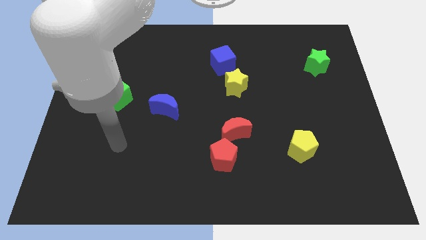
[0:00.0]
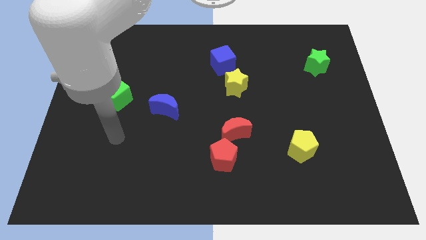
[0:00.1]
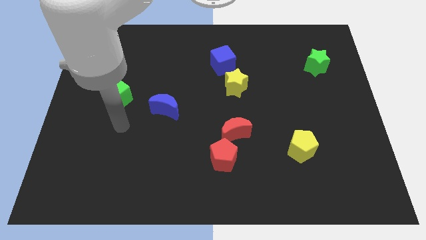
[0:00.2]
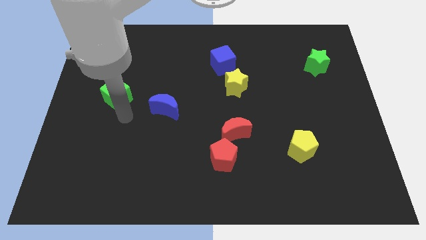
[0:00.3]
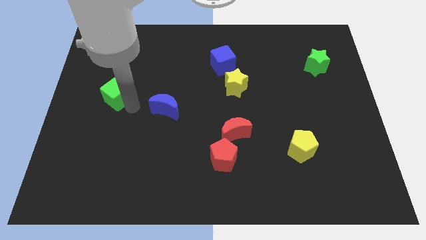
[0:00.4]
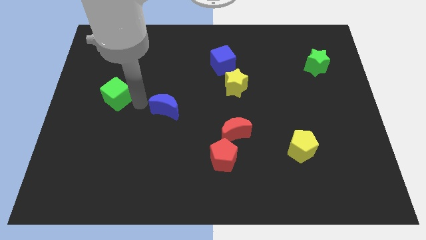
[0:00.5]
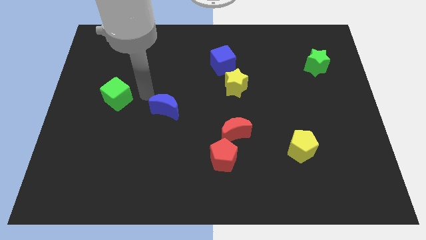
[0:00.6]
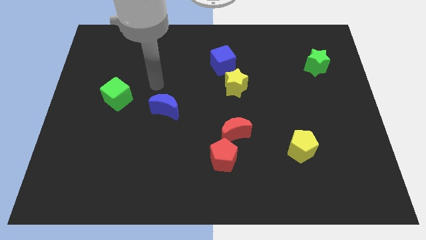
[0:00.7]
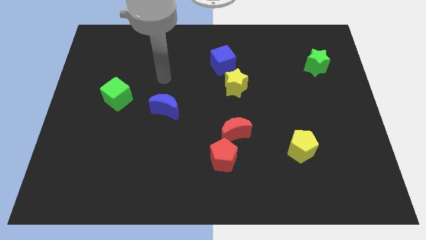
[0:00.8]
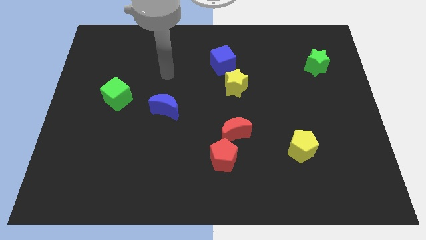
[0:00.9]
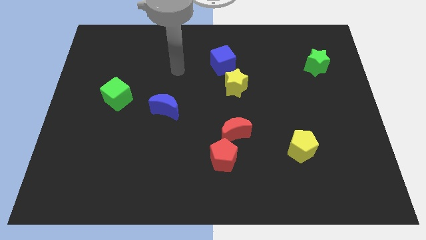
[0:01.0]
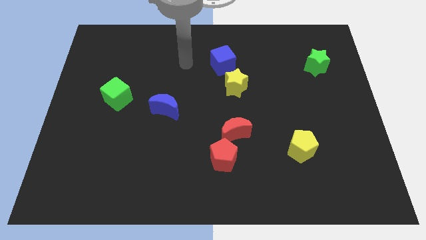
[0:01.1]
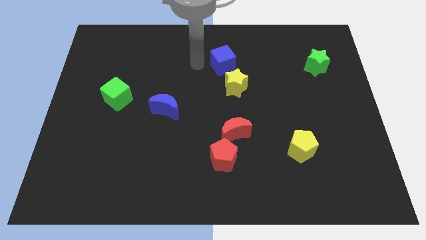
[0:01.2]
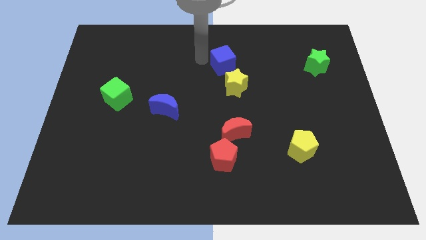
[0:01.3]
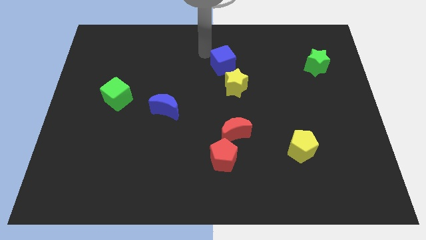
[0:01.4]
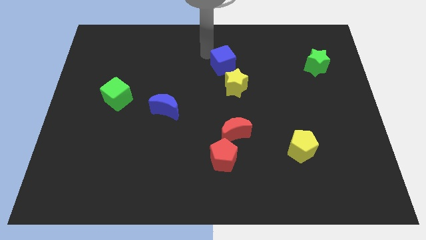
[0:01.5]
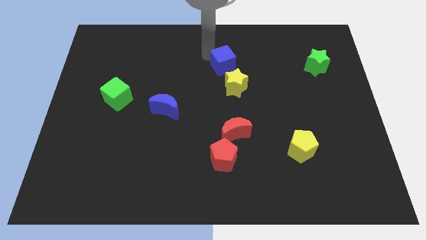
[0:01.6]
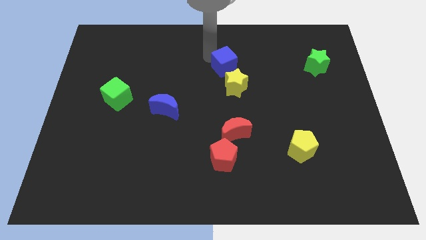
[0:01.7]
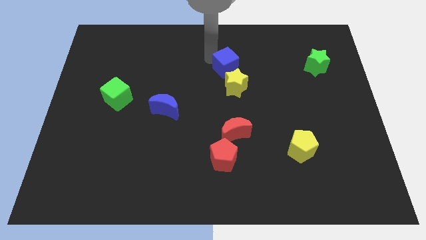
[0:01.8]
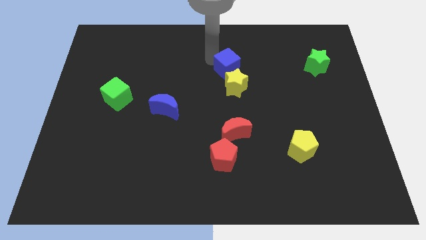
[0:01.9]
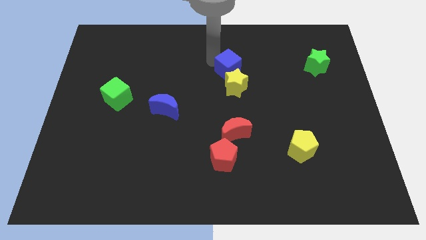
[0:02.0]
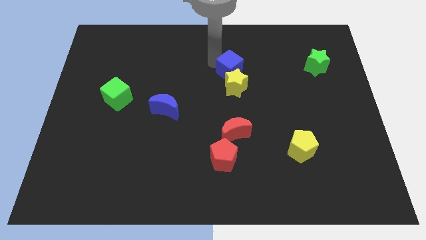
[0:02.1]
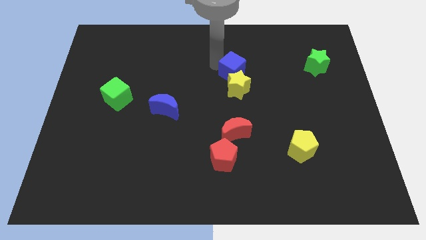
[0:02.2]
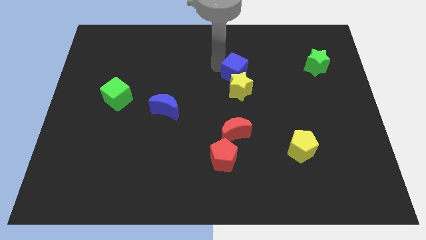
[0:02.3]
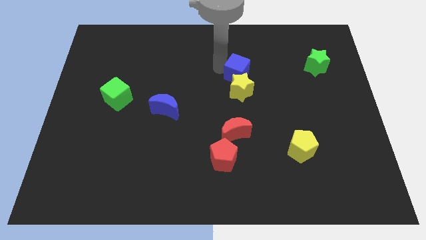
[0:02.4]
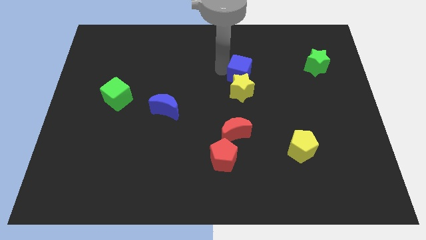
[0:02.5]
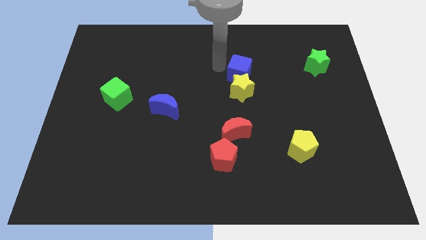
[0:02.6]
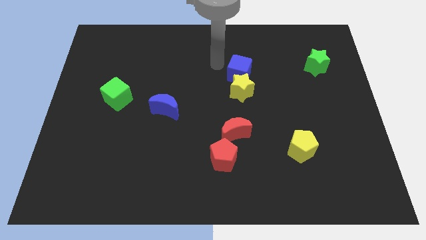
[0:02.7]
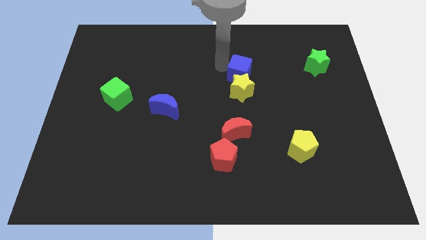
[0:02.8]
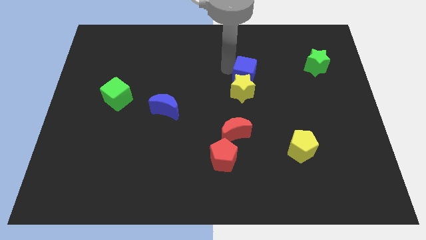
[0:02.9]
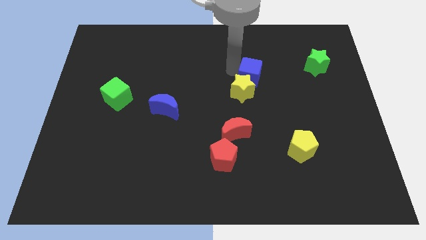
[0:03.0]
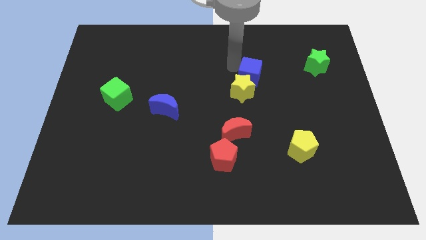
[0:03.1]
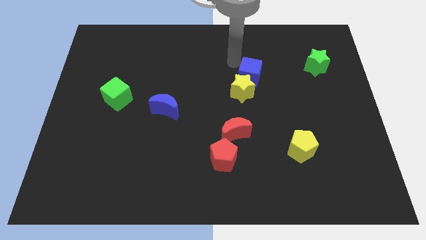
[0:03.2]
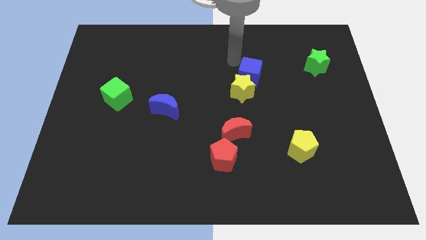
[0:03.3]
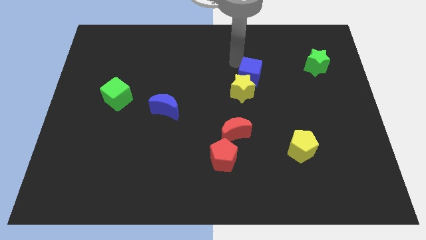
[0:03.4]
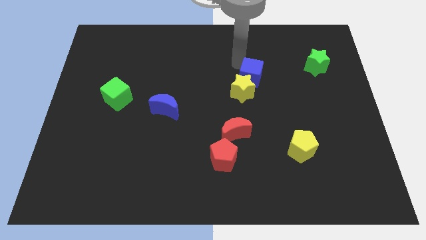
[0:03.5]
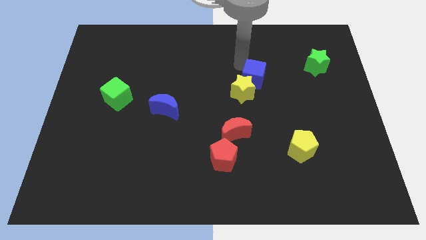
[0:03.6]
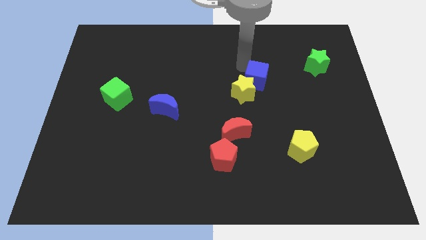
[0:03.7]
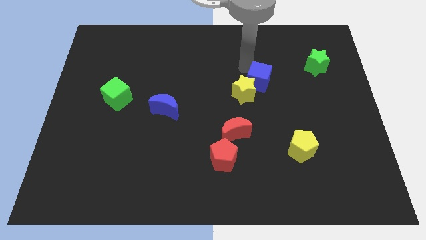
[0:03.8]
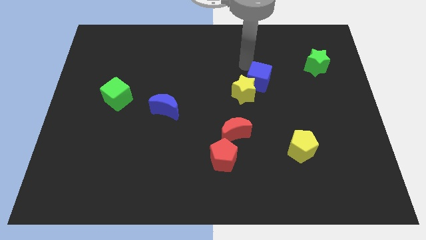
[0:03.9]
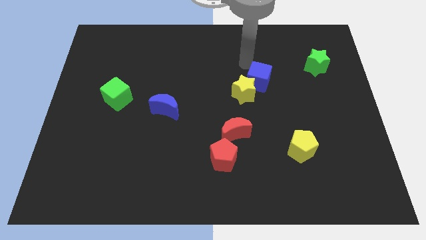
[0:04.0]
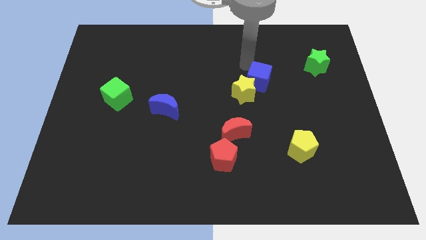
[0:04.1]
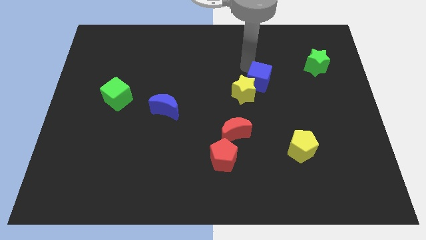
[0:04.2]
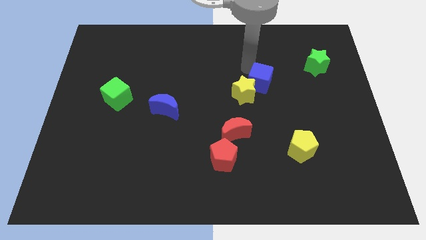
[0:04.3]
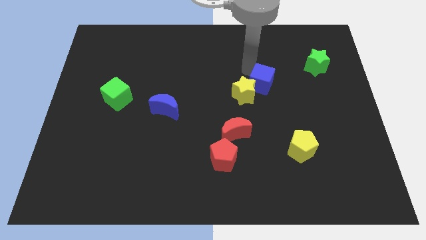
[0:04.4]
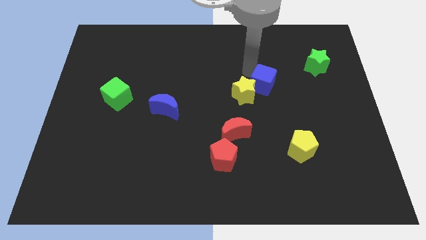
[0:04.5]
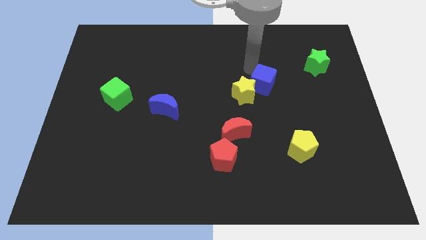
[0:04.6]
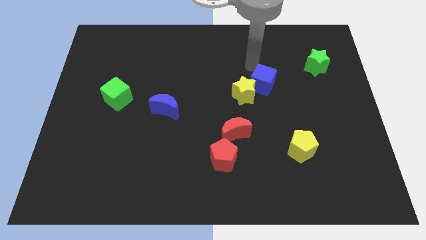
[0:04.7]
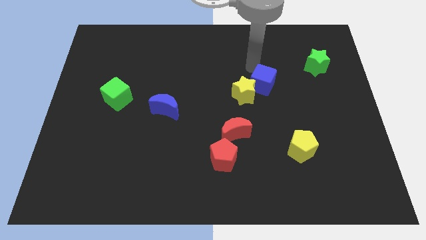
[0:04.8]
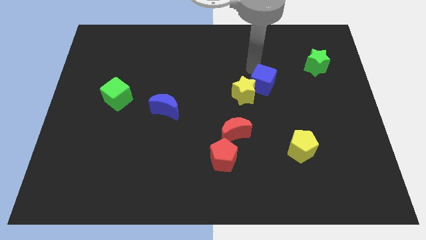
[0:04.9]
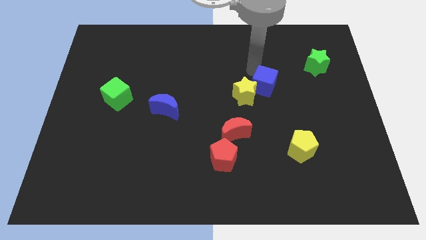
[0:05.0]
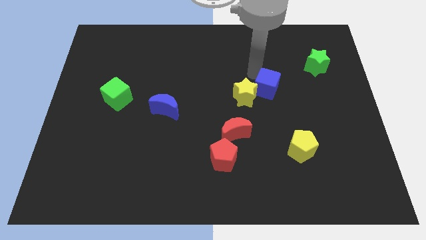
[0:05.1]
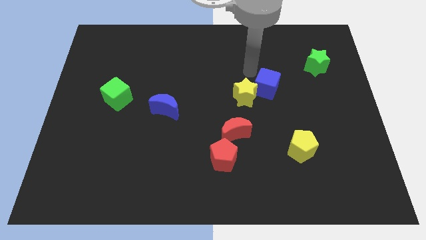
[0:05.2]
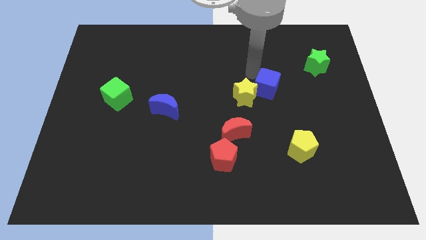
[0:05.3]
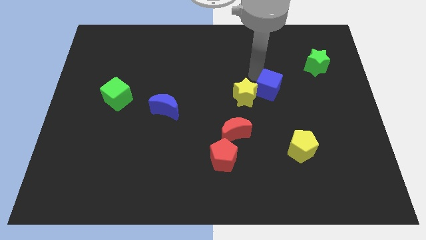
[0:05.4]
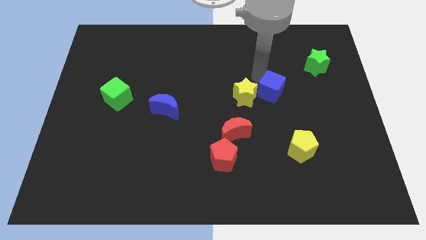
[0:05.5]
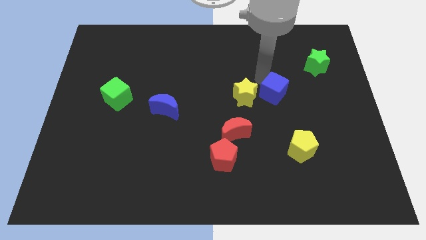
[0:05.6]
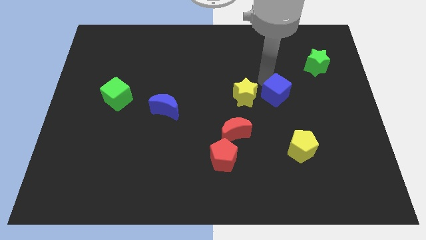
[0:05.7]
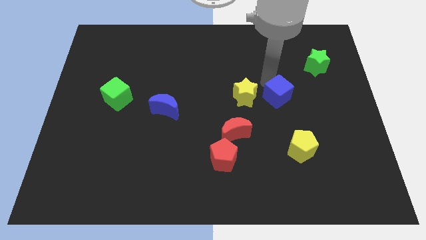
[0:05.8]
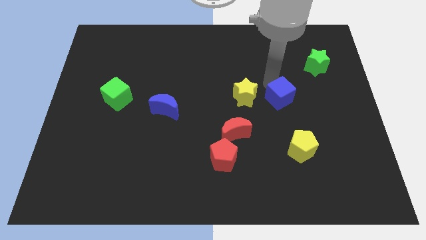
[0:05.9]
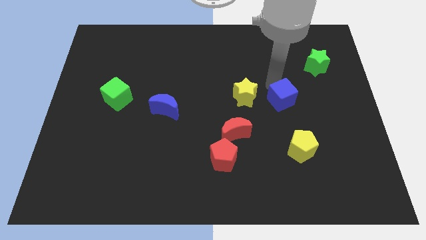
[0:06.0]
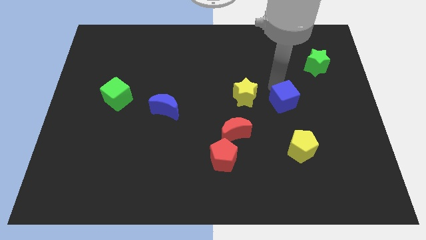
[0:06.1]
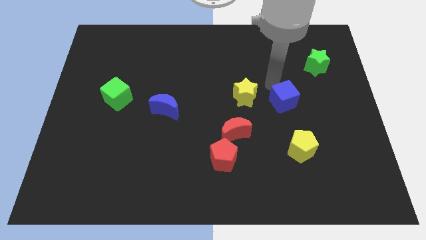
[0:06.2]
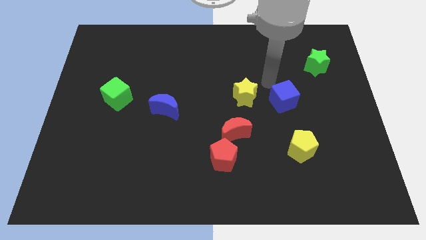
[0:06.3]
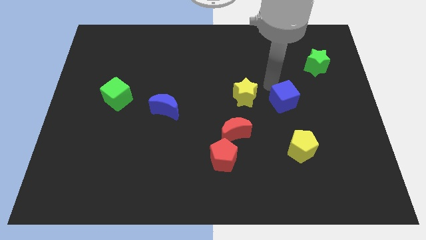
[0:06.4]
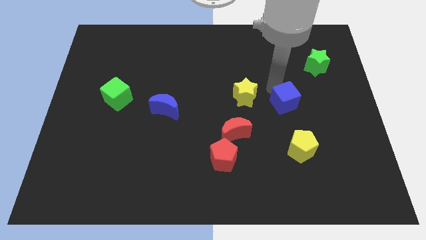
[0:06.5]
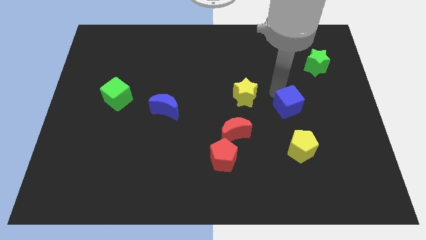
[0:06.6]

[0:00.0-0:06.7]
move the blue cube down and then to the right

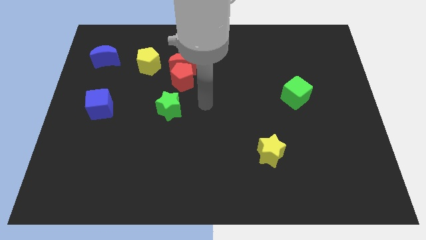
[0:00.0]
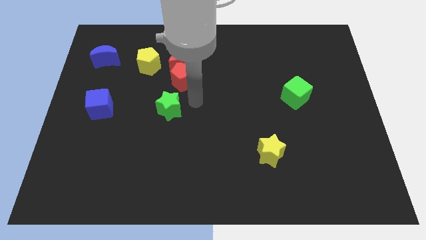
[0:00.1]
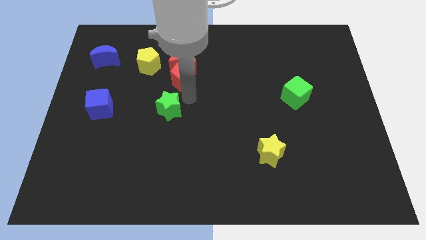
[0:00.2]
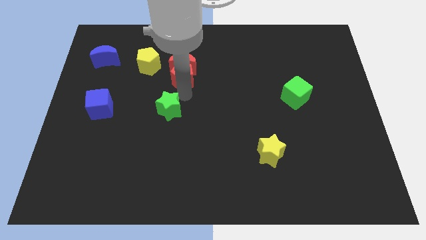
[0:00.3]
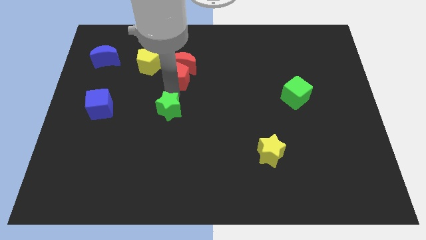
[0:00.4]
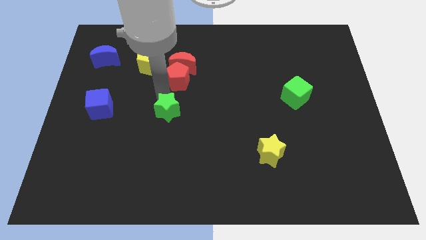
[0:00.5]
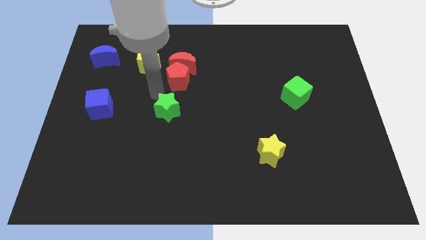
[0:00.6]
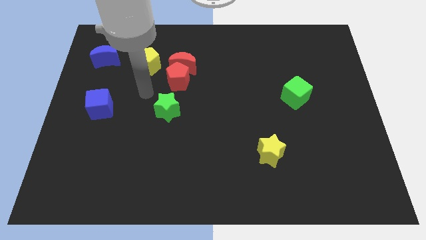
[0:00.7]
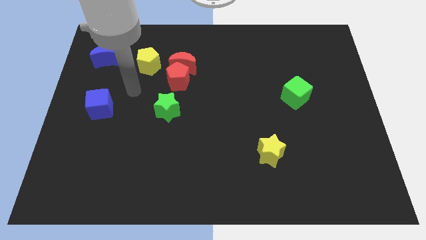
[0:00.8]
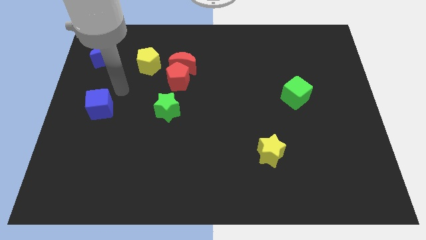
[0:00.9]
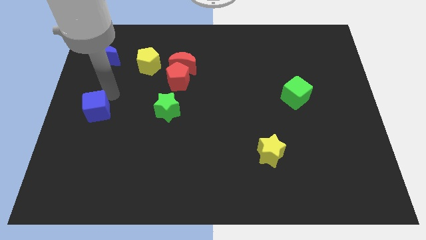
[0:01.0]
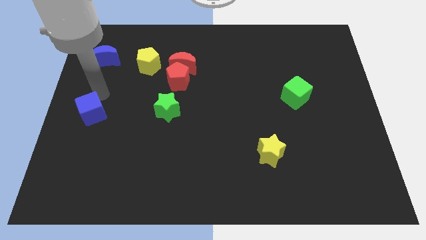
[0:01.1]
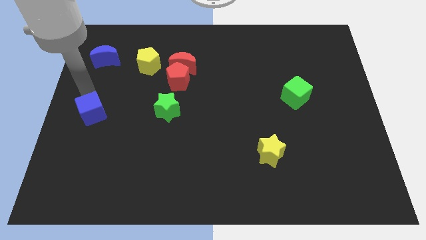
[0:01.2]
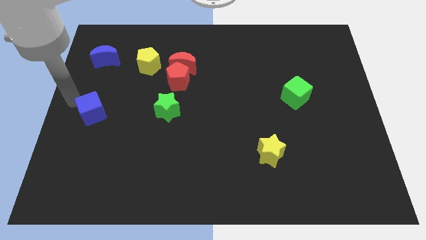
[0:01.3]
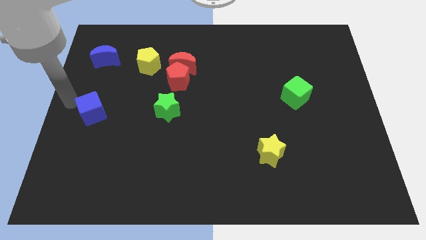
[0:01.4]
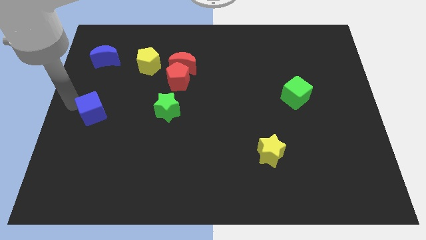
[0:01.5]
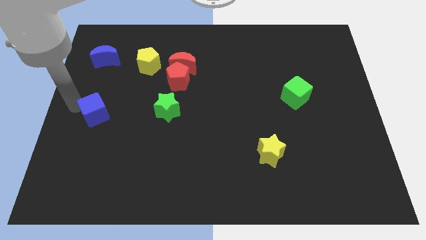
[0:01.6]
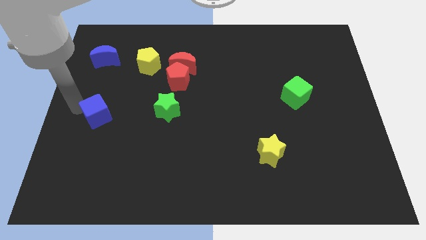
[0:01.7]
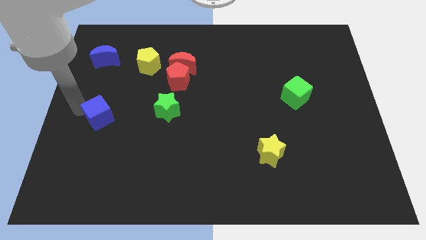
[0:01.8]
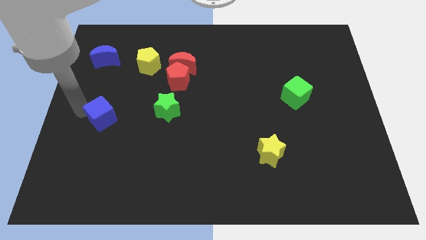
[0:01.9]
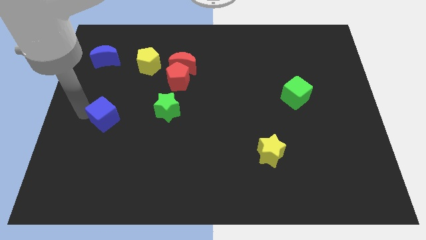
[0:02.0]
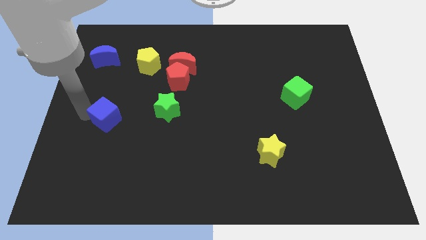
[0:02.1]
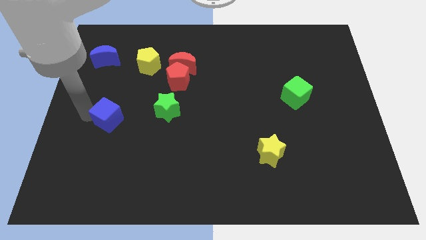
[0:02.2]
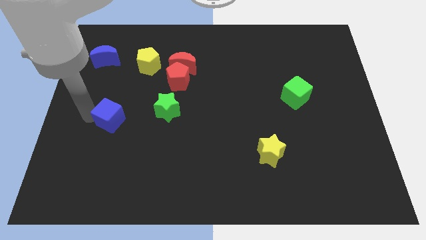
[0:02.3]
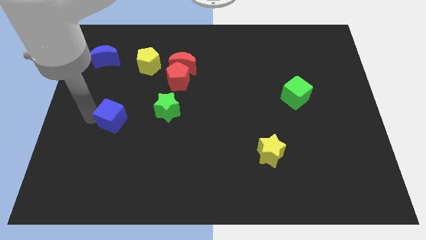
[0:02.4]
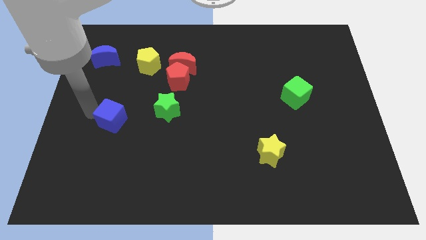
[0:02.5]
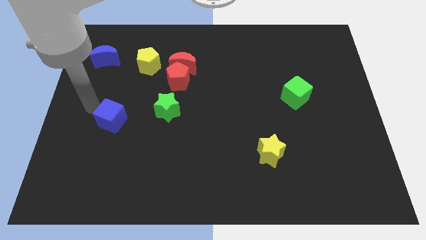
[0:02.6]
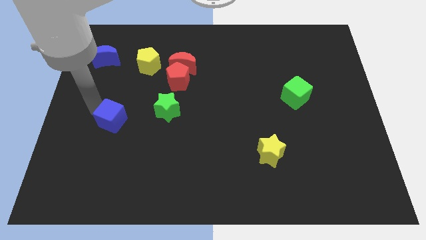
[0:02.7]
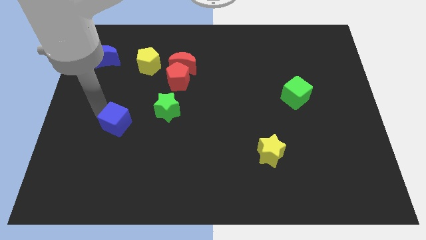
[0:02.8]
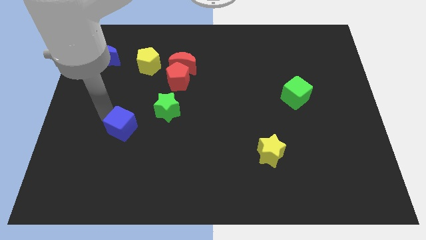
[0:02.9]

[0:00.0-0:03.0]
push the blue cube diagonally downwards and to the right somewhat
